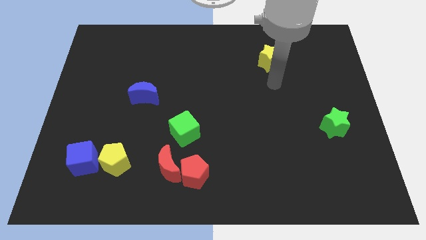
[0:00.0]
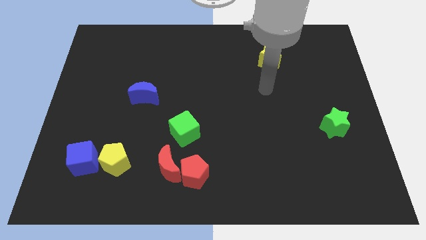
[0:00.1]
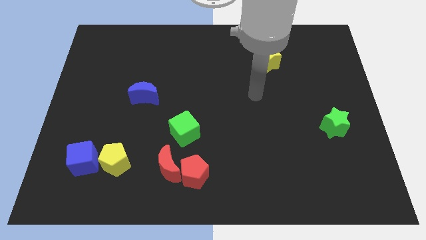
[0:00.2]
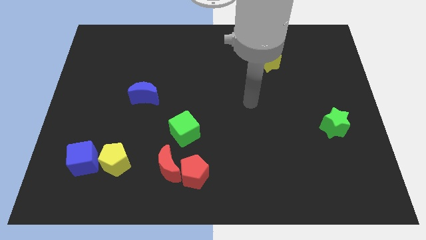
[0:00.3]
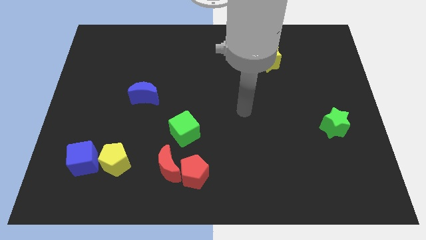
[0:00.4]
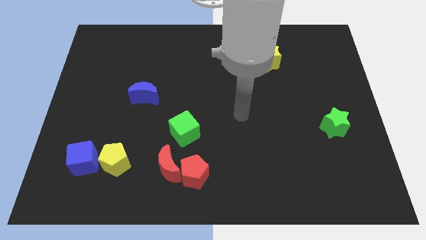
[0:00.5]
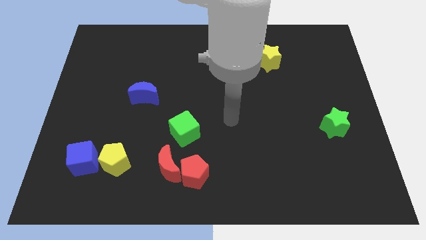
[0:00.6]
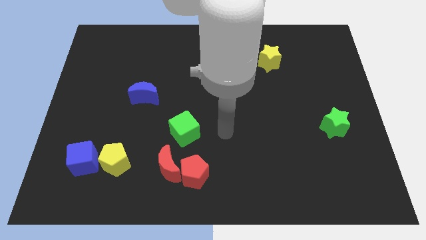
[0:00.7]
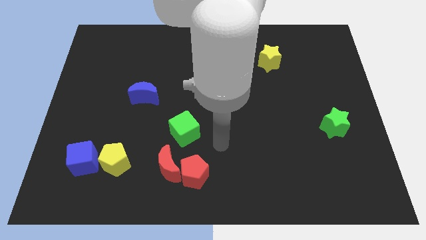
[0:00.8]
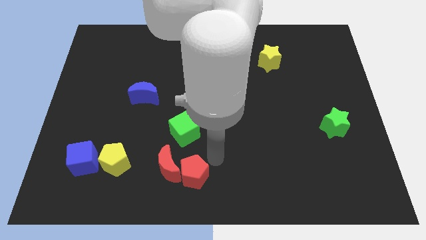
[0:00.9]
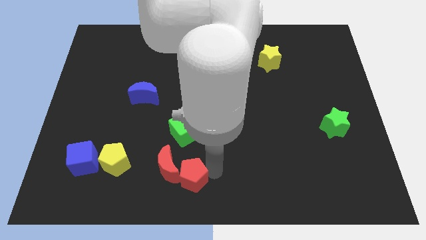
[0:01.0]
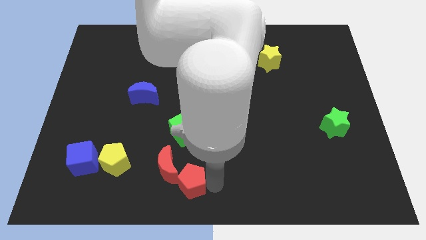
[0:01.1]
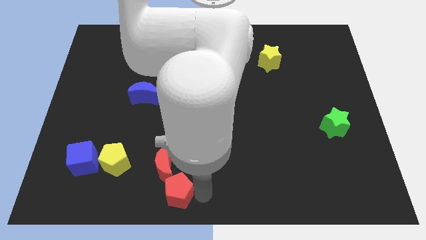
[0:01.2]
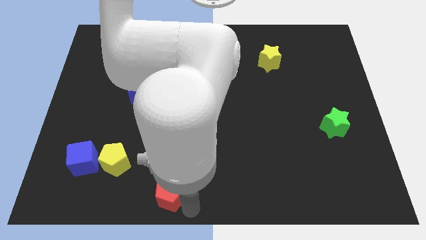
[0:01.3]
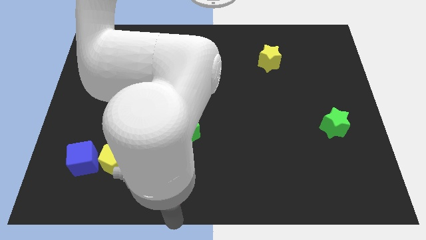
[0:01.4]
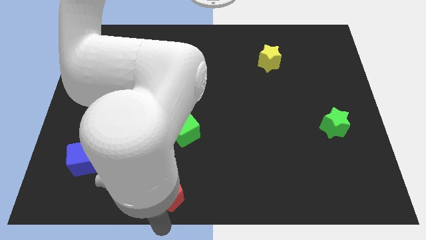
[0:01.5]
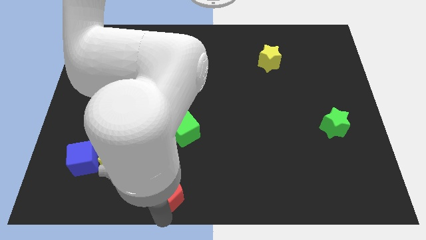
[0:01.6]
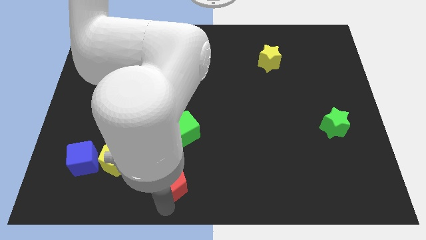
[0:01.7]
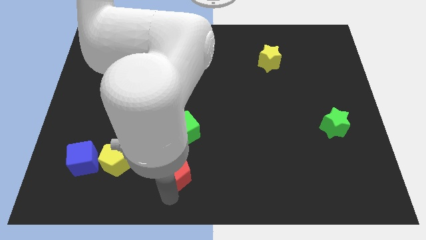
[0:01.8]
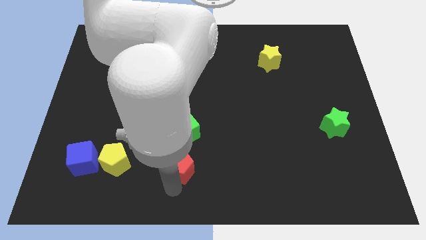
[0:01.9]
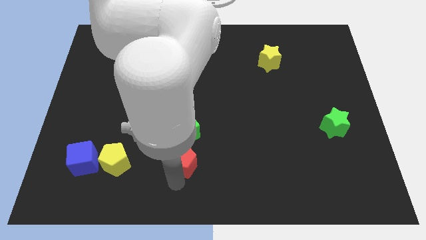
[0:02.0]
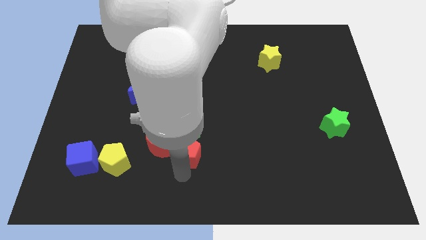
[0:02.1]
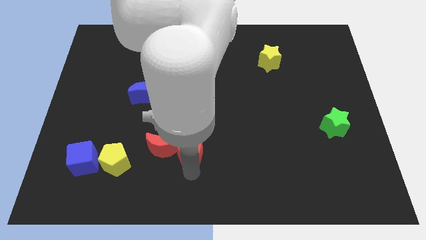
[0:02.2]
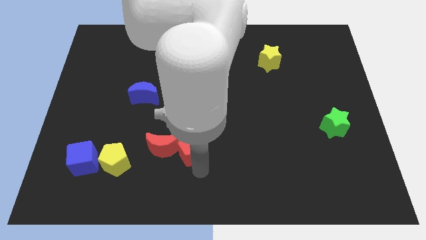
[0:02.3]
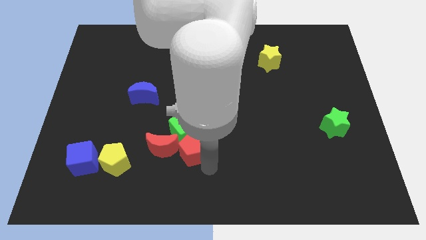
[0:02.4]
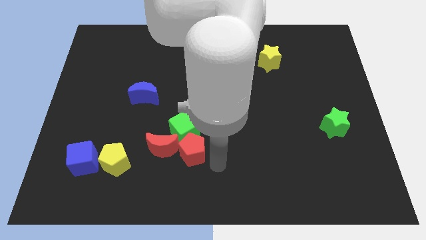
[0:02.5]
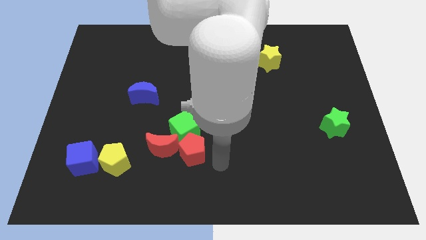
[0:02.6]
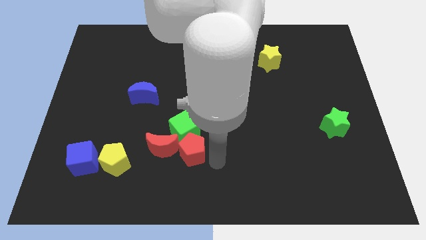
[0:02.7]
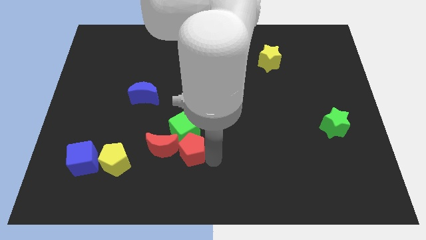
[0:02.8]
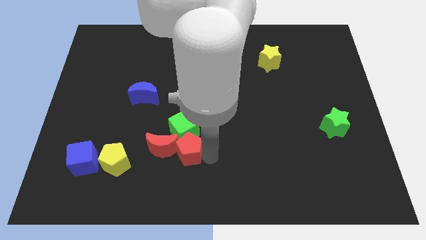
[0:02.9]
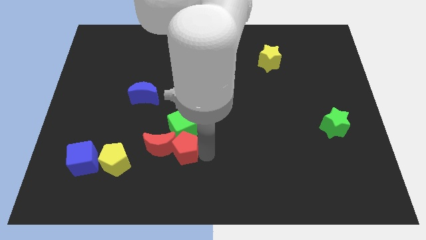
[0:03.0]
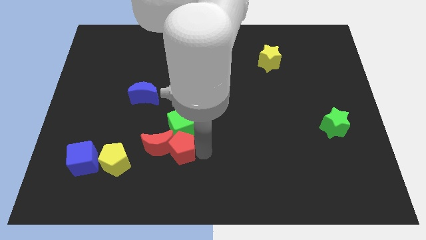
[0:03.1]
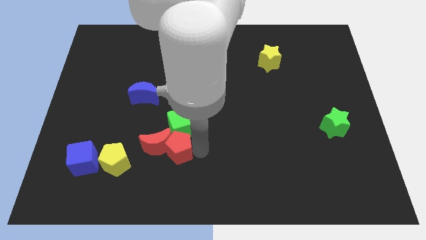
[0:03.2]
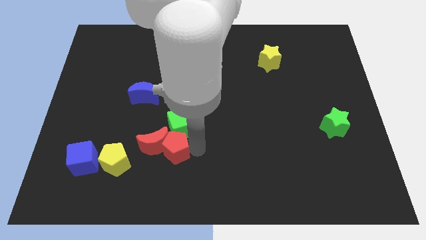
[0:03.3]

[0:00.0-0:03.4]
slide the red pentagon a bit upwards and to the left

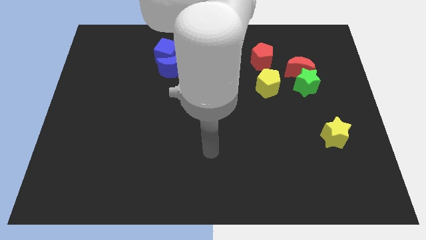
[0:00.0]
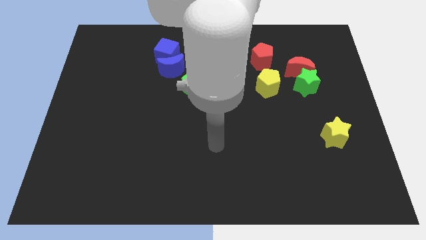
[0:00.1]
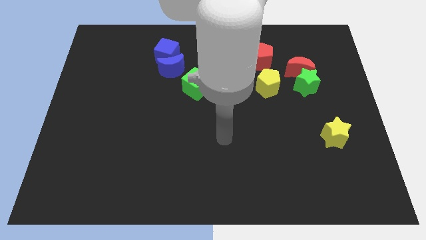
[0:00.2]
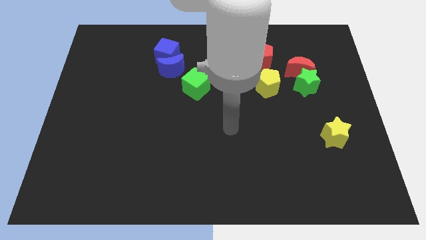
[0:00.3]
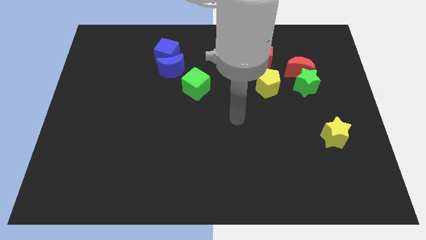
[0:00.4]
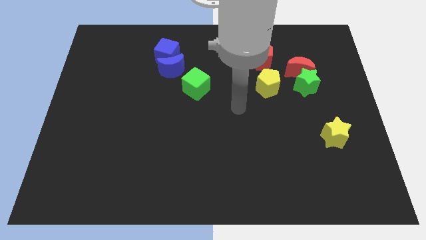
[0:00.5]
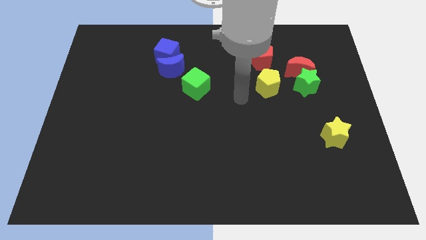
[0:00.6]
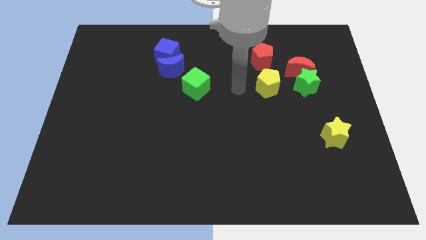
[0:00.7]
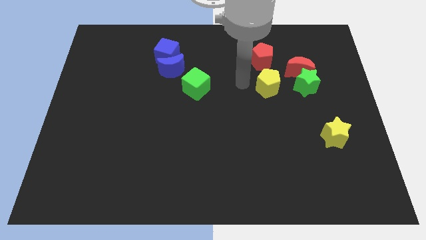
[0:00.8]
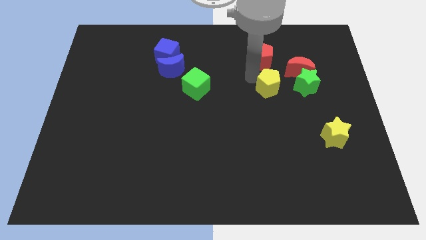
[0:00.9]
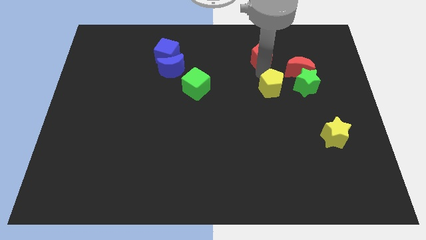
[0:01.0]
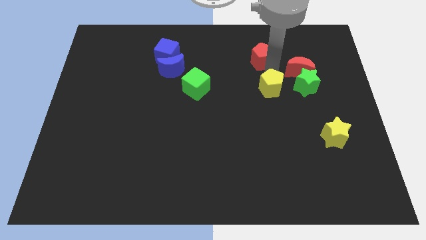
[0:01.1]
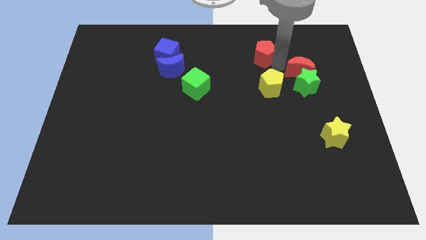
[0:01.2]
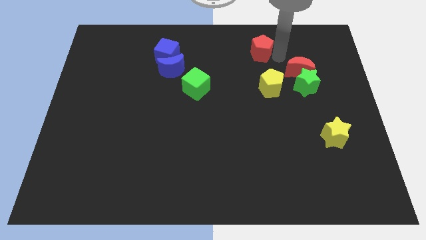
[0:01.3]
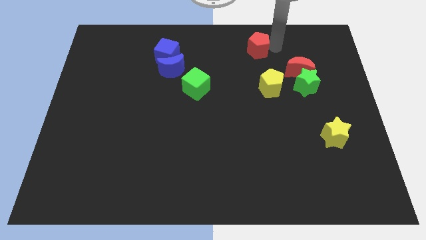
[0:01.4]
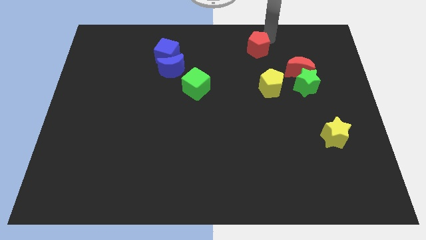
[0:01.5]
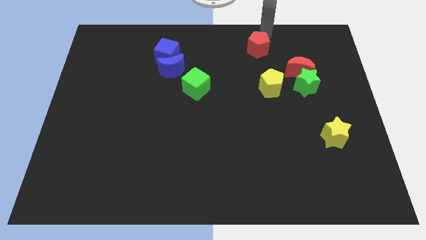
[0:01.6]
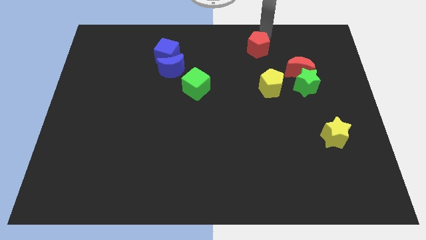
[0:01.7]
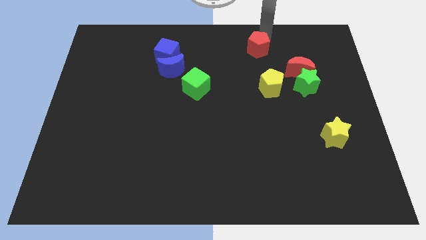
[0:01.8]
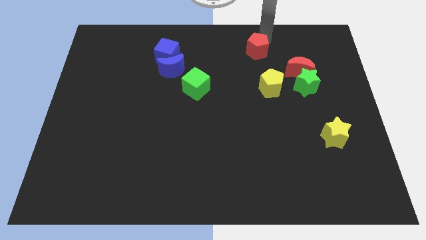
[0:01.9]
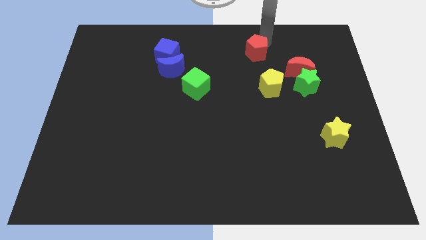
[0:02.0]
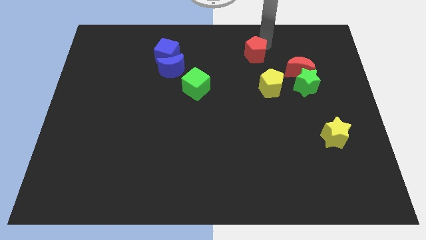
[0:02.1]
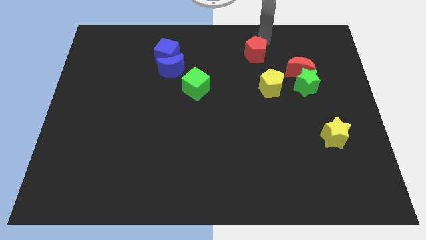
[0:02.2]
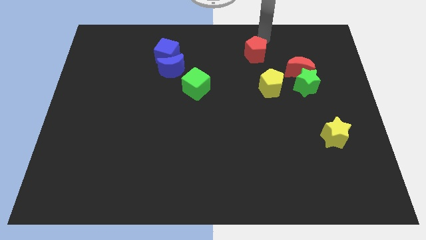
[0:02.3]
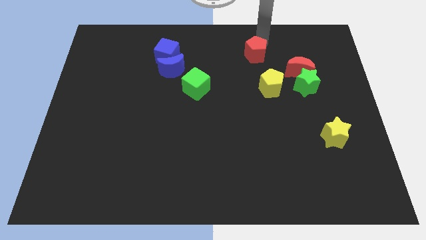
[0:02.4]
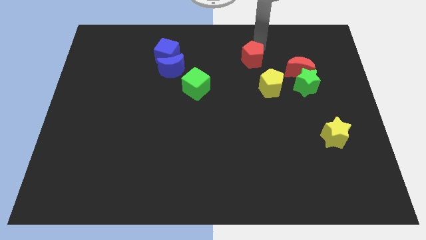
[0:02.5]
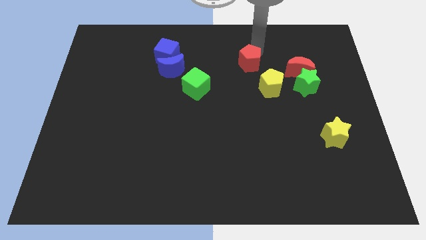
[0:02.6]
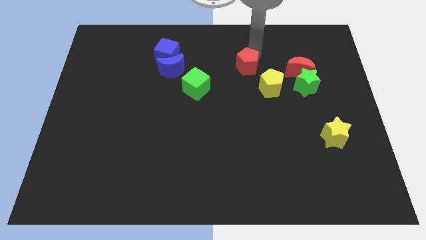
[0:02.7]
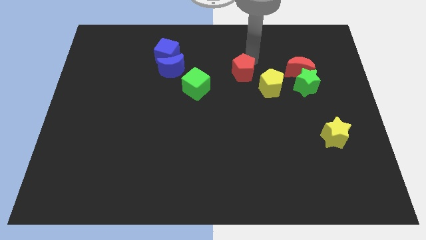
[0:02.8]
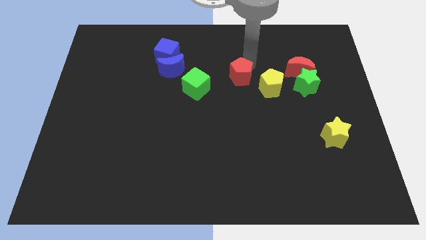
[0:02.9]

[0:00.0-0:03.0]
slightly move the red pentagon diagonally down and to the left

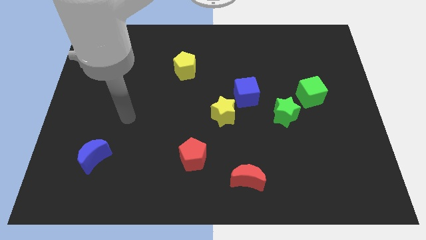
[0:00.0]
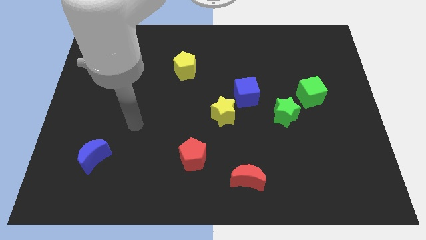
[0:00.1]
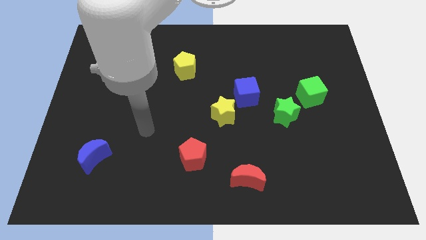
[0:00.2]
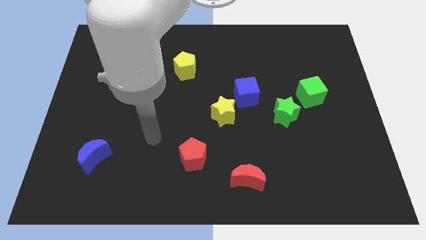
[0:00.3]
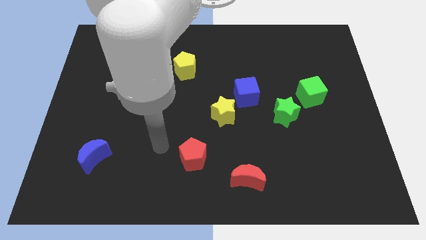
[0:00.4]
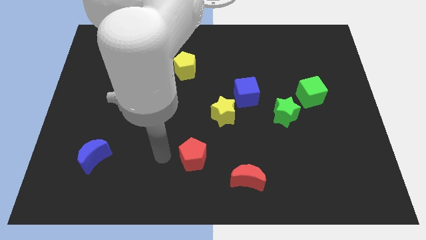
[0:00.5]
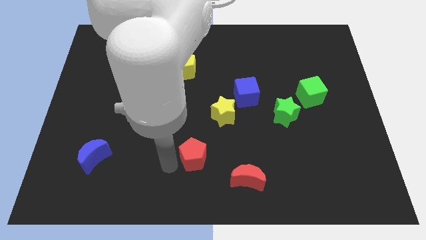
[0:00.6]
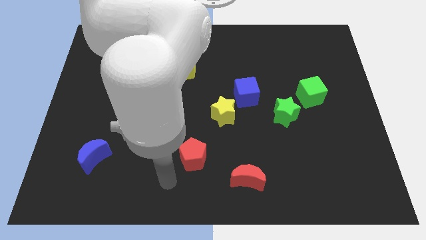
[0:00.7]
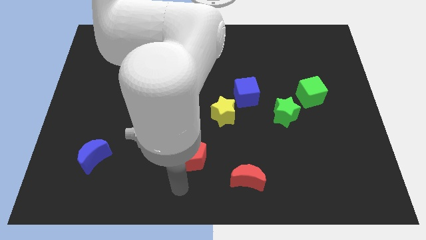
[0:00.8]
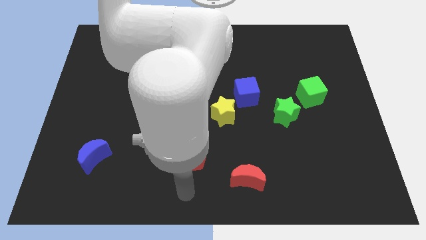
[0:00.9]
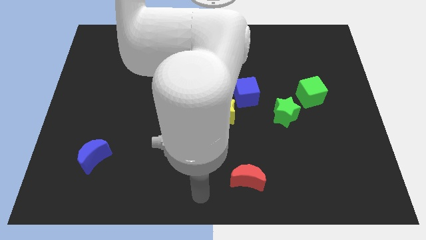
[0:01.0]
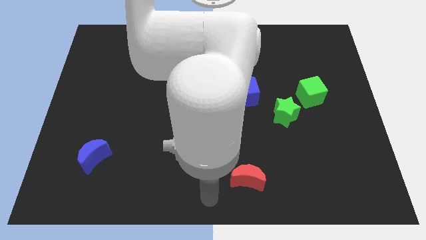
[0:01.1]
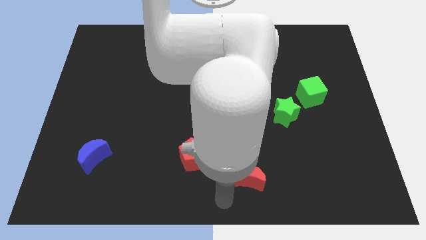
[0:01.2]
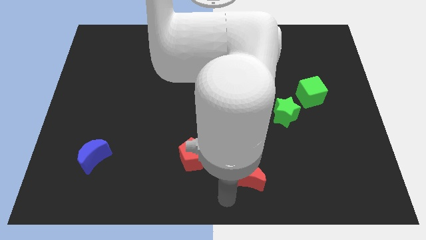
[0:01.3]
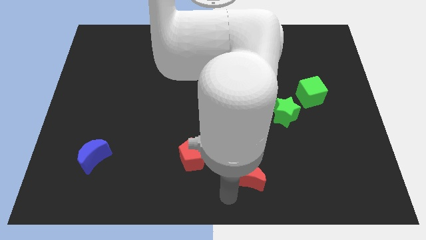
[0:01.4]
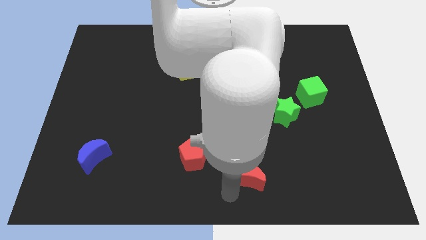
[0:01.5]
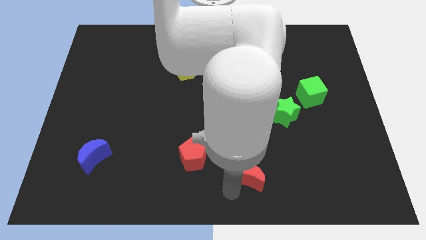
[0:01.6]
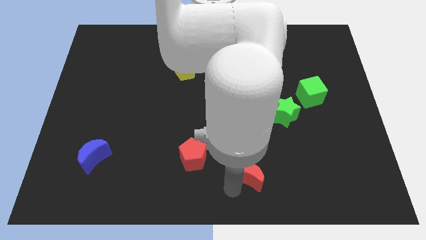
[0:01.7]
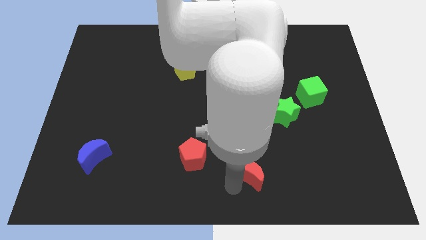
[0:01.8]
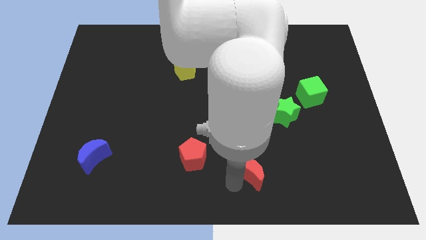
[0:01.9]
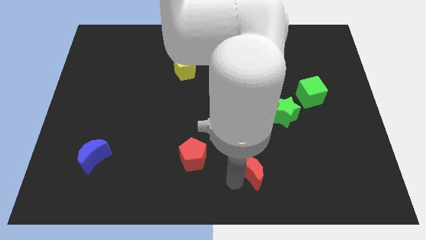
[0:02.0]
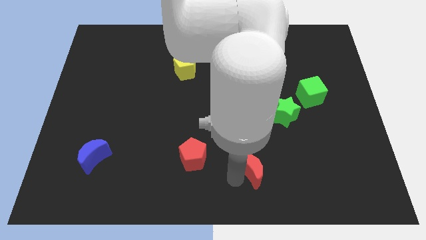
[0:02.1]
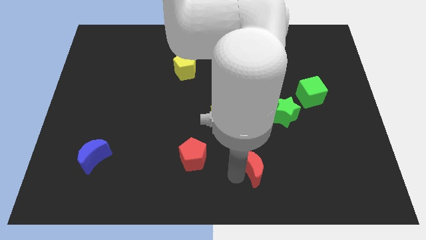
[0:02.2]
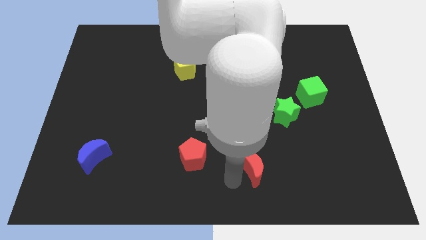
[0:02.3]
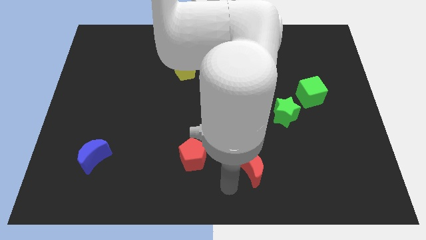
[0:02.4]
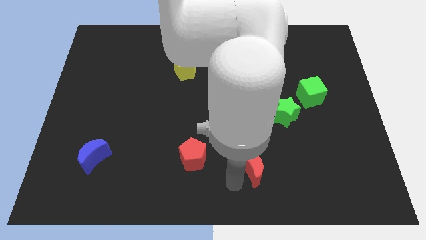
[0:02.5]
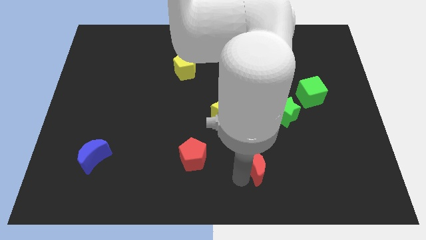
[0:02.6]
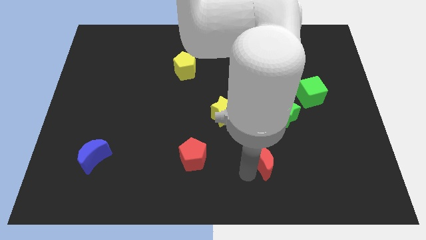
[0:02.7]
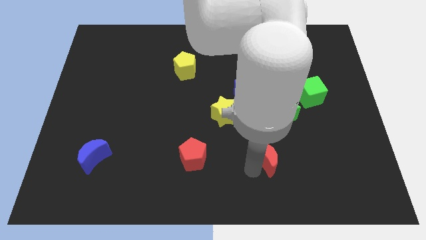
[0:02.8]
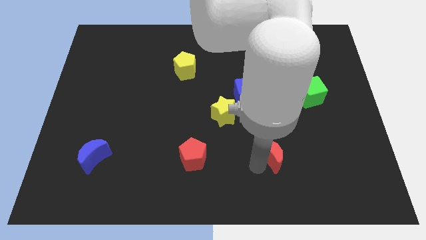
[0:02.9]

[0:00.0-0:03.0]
slightly push the red moon up and to the right diagonally
